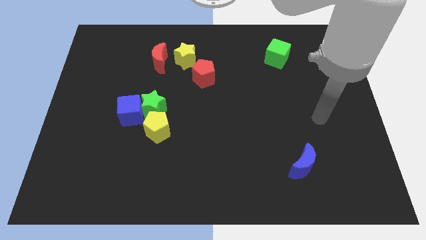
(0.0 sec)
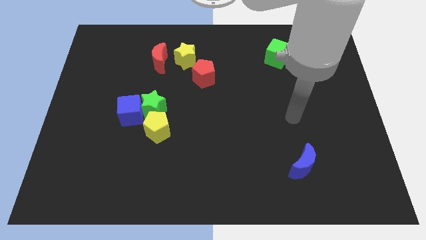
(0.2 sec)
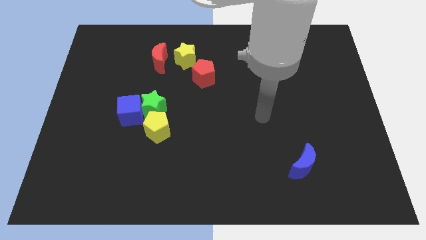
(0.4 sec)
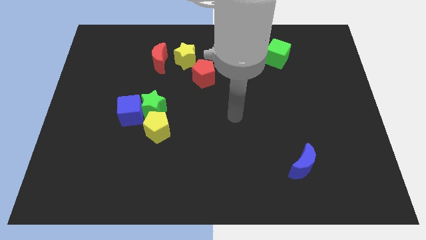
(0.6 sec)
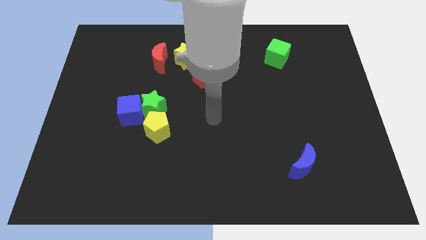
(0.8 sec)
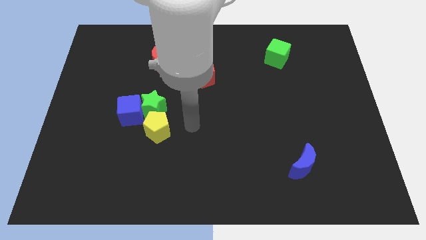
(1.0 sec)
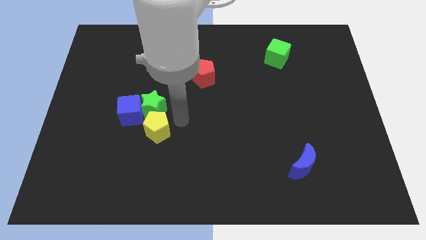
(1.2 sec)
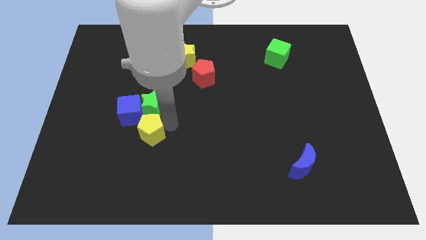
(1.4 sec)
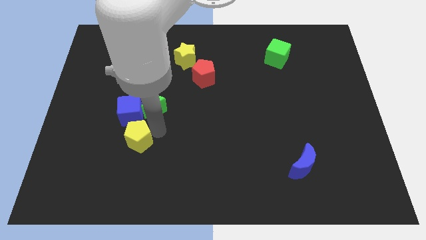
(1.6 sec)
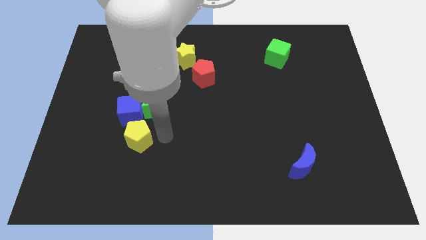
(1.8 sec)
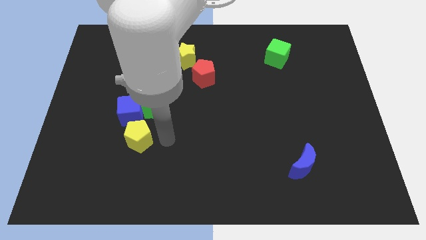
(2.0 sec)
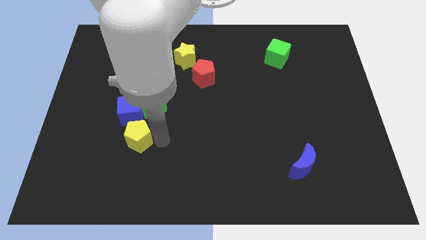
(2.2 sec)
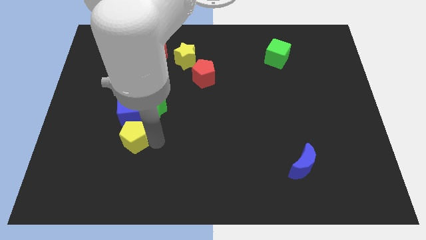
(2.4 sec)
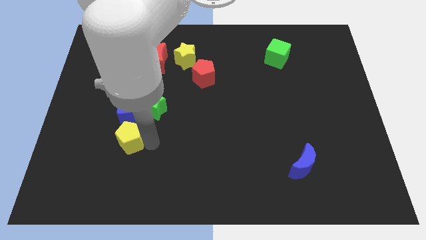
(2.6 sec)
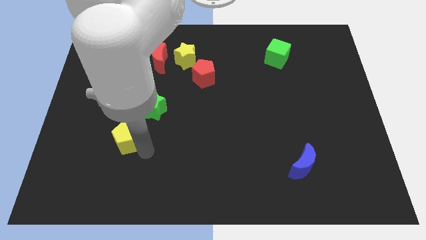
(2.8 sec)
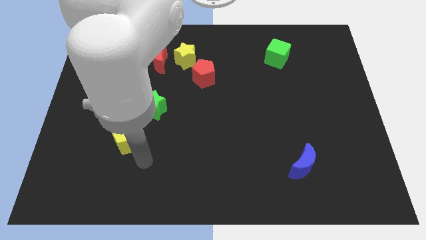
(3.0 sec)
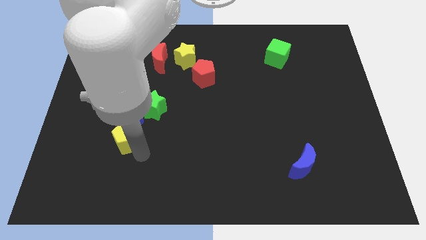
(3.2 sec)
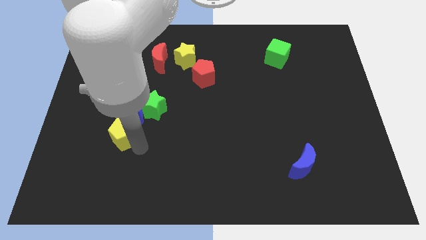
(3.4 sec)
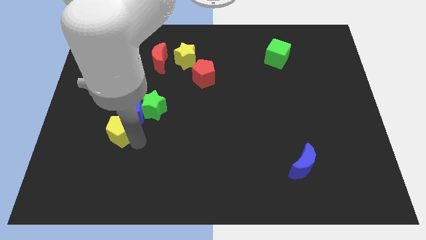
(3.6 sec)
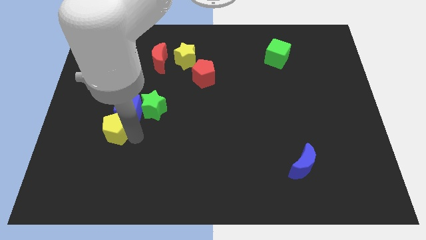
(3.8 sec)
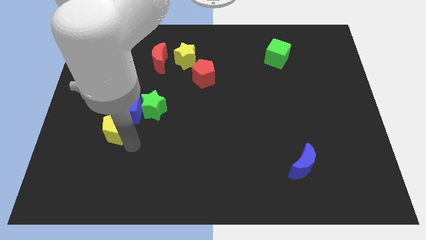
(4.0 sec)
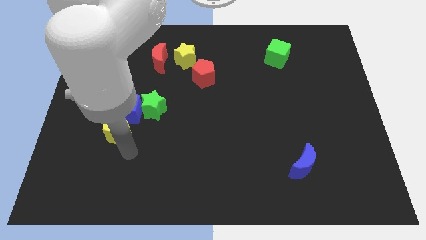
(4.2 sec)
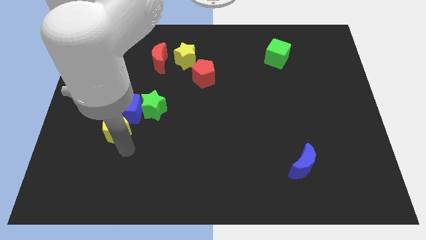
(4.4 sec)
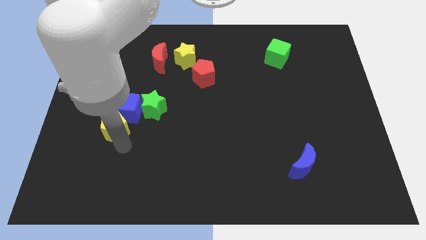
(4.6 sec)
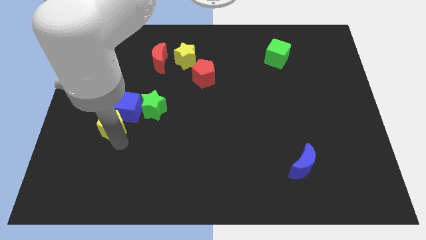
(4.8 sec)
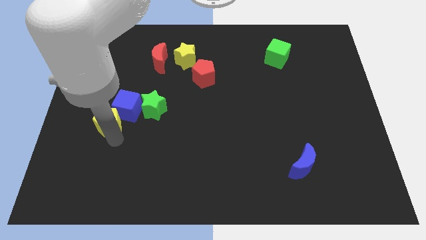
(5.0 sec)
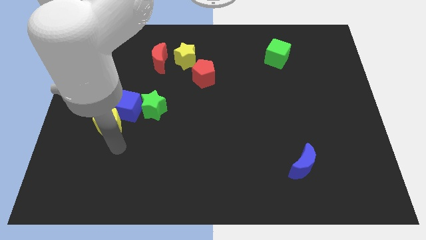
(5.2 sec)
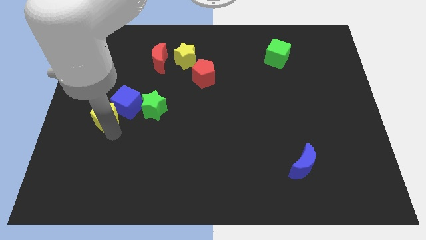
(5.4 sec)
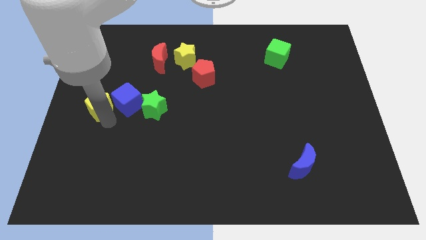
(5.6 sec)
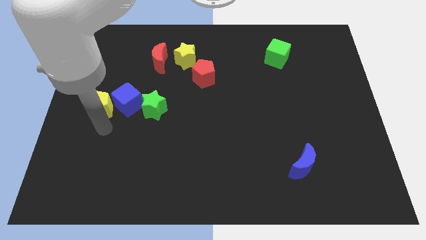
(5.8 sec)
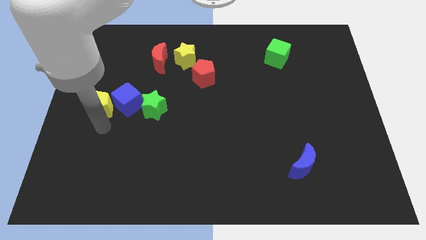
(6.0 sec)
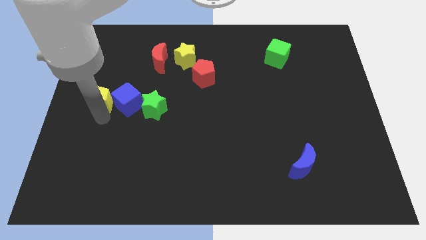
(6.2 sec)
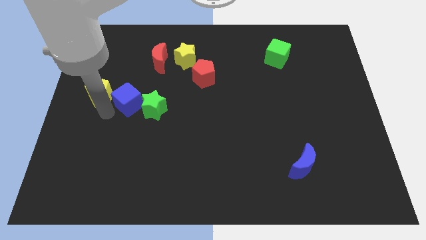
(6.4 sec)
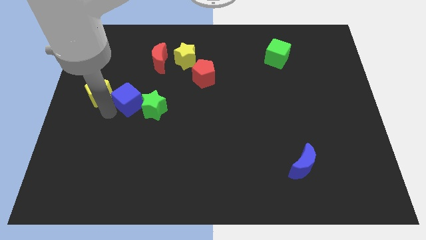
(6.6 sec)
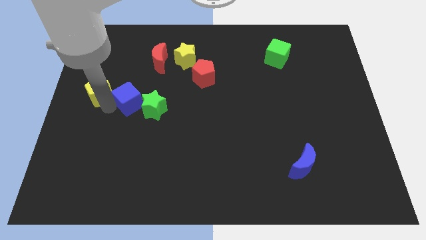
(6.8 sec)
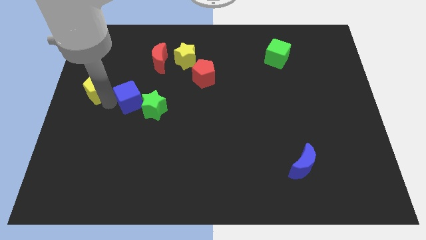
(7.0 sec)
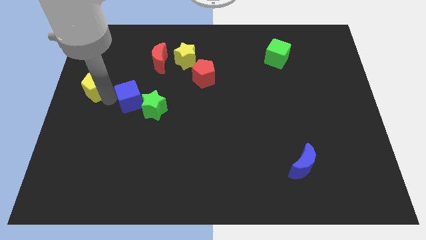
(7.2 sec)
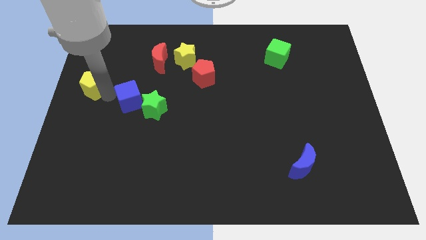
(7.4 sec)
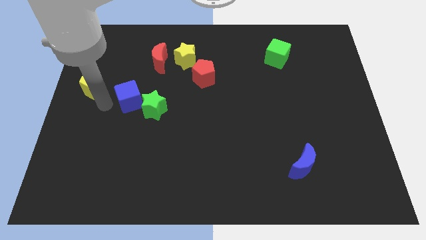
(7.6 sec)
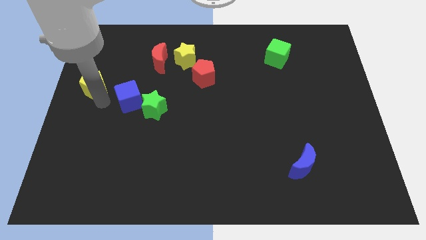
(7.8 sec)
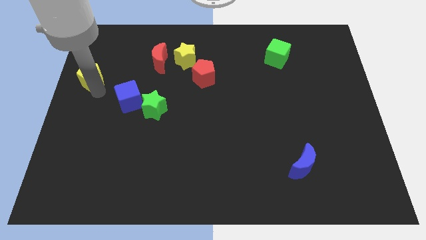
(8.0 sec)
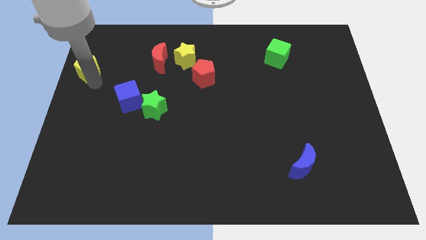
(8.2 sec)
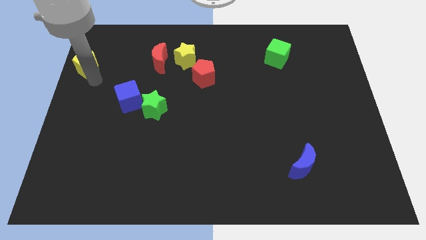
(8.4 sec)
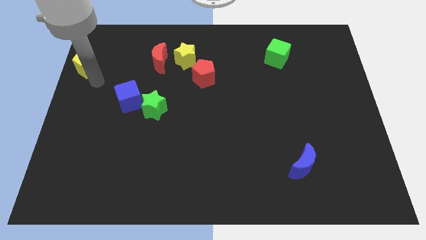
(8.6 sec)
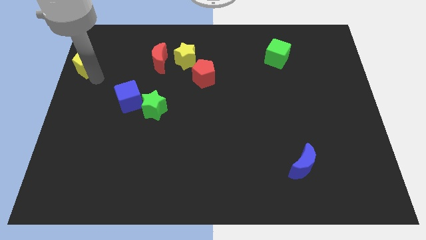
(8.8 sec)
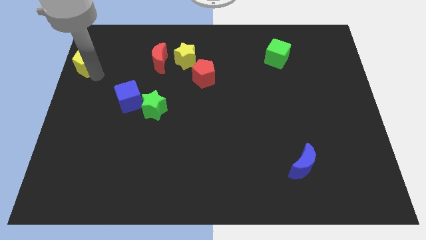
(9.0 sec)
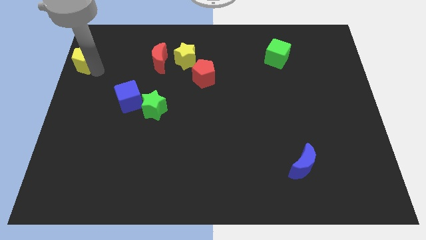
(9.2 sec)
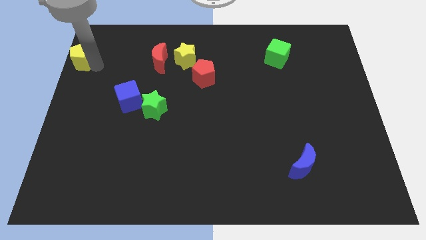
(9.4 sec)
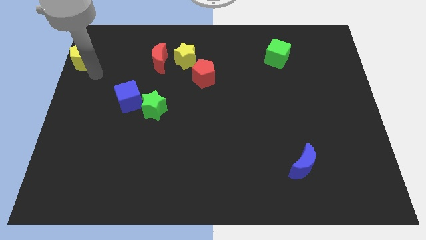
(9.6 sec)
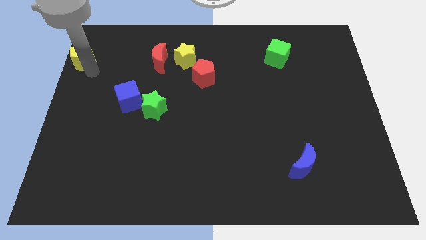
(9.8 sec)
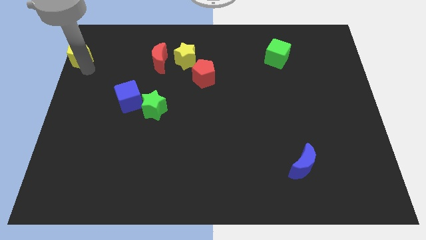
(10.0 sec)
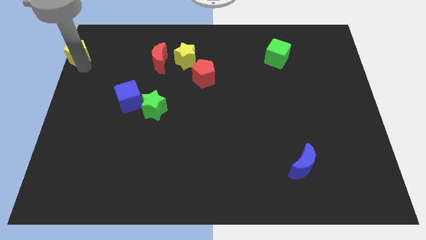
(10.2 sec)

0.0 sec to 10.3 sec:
slide the yellow pentagon to the top left corner

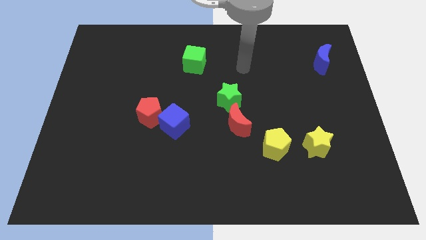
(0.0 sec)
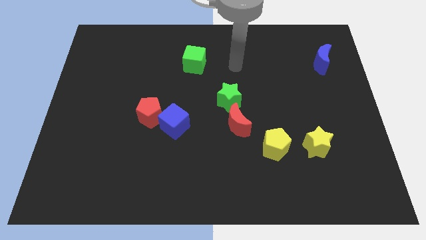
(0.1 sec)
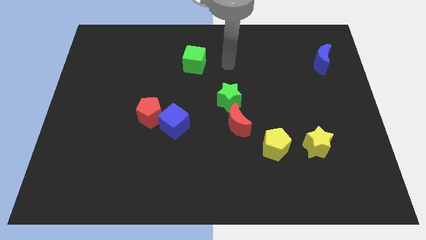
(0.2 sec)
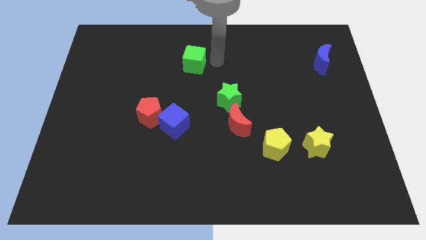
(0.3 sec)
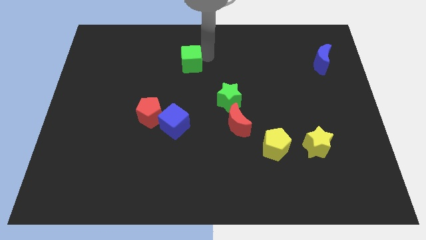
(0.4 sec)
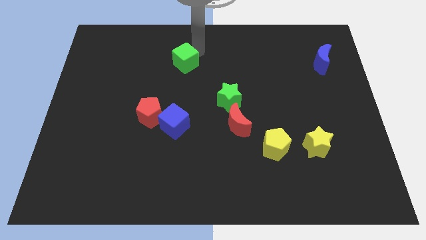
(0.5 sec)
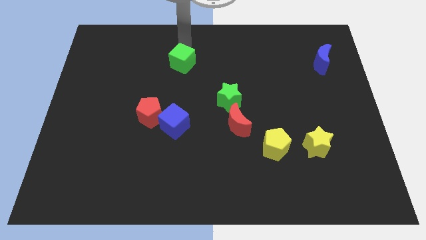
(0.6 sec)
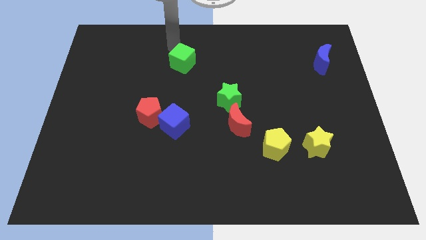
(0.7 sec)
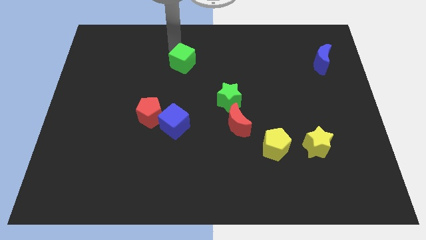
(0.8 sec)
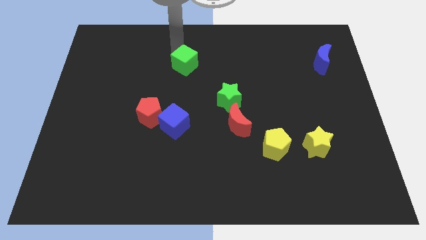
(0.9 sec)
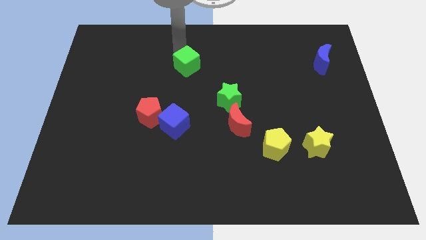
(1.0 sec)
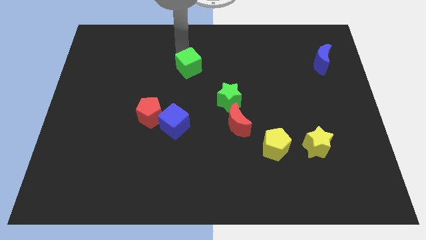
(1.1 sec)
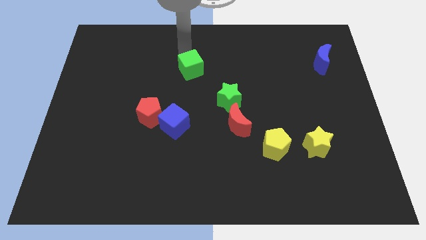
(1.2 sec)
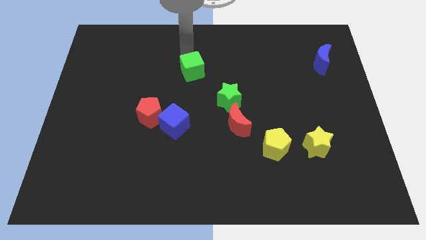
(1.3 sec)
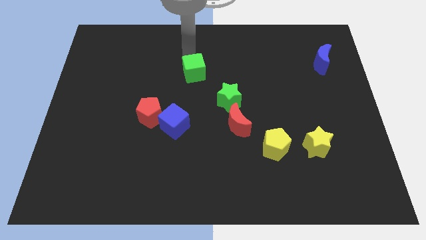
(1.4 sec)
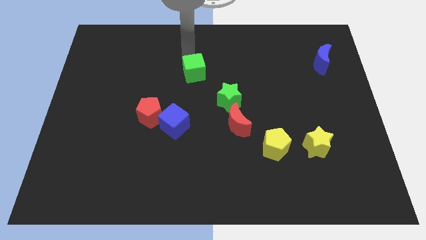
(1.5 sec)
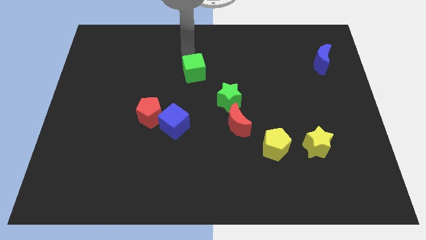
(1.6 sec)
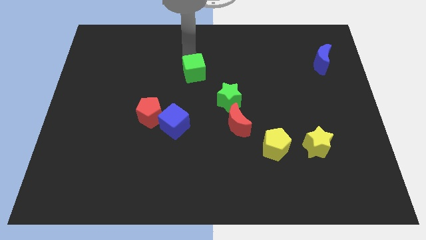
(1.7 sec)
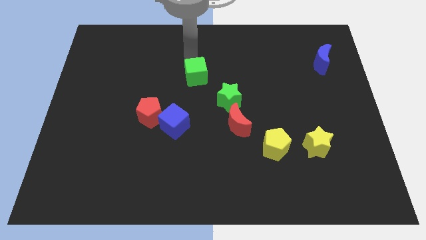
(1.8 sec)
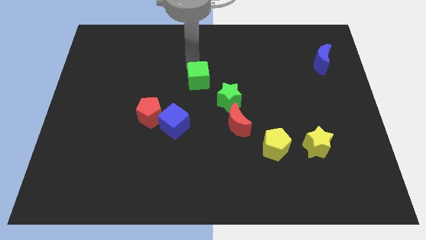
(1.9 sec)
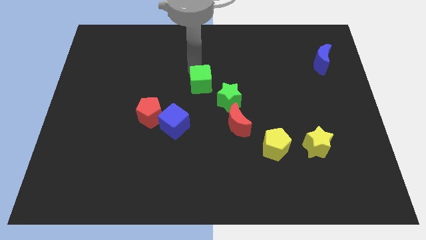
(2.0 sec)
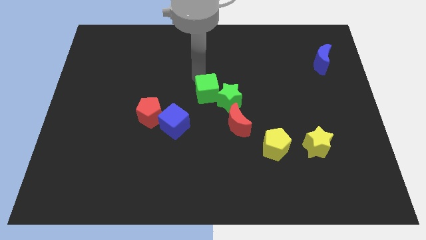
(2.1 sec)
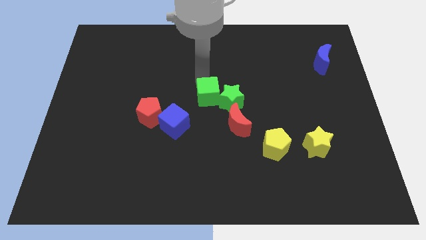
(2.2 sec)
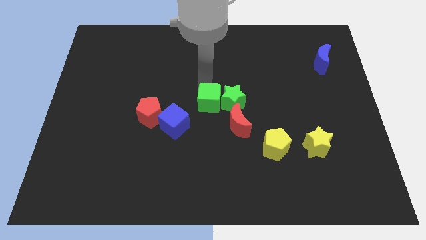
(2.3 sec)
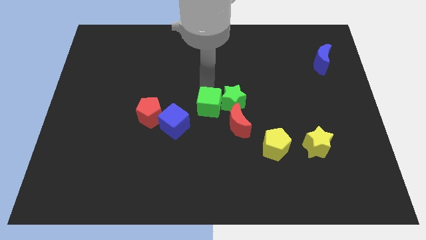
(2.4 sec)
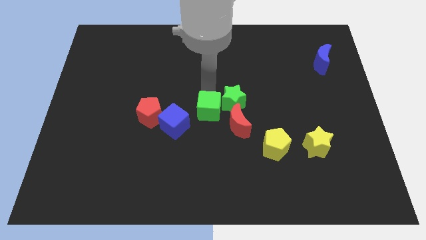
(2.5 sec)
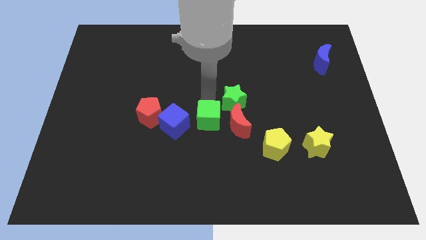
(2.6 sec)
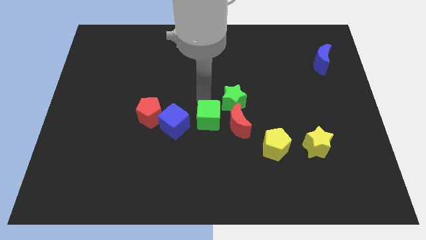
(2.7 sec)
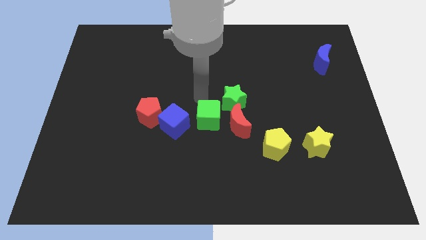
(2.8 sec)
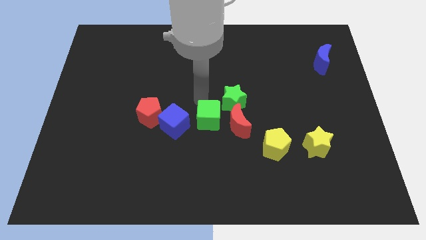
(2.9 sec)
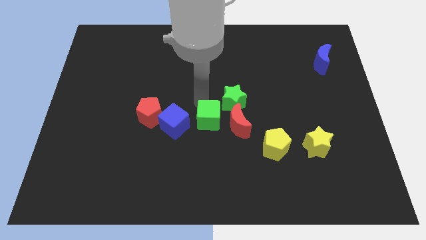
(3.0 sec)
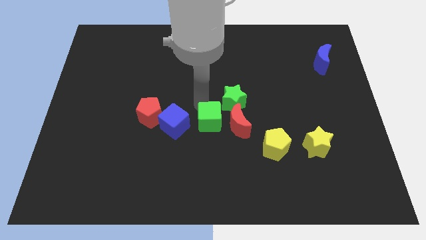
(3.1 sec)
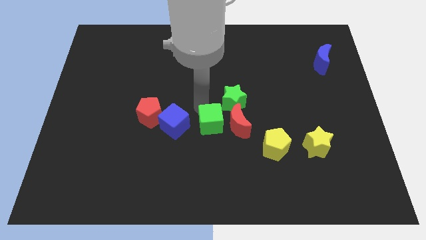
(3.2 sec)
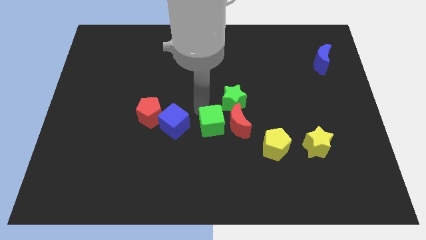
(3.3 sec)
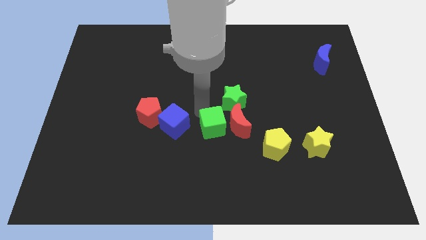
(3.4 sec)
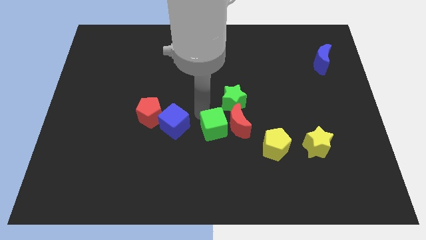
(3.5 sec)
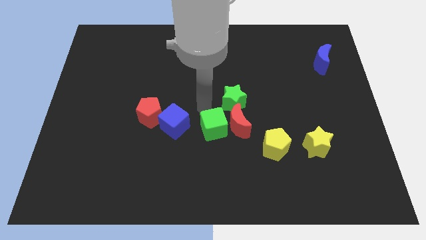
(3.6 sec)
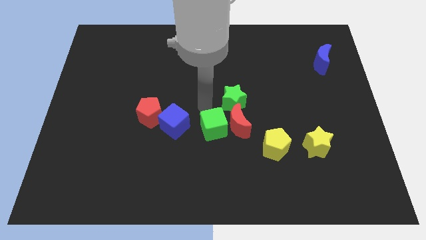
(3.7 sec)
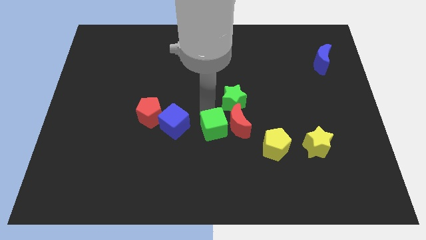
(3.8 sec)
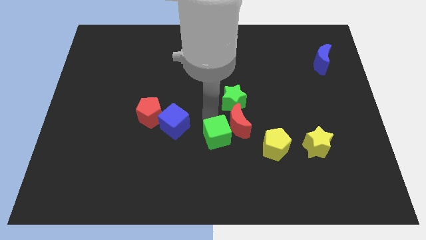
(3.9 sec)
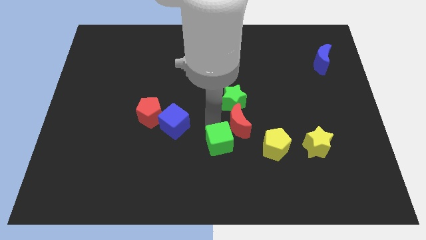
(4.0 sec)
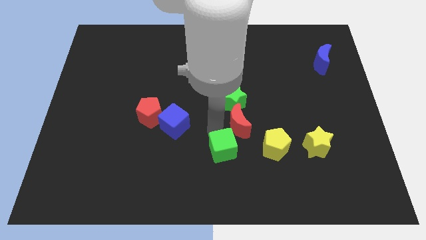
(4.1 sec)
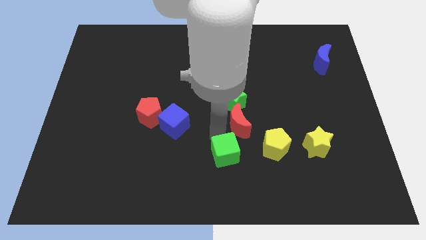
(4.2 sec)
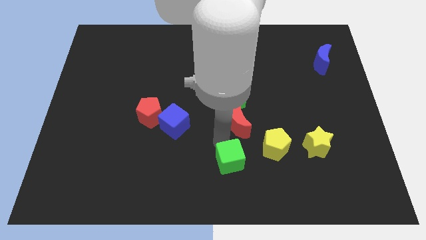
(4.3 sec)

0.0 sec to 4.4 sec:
push the green cube to the bottom
